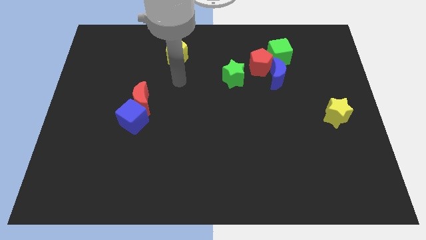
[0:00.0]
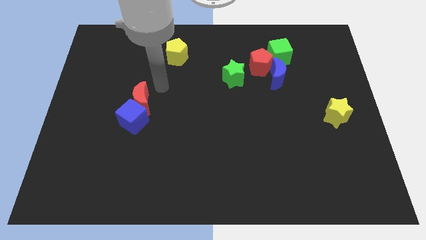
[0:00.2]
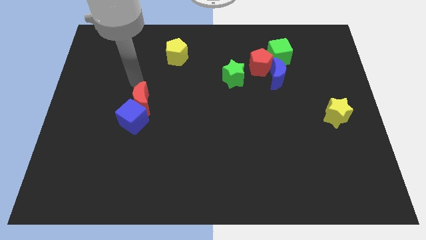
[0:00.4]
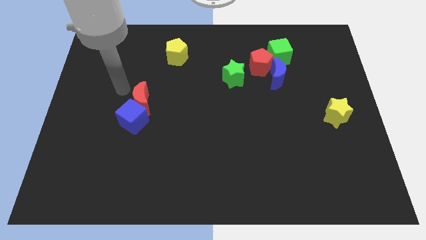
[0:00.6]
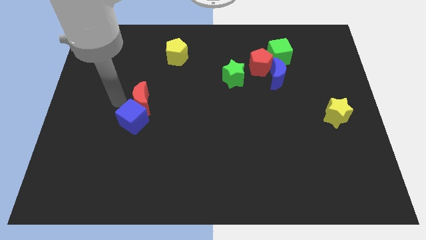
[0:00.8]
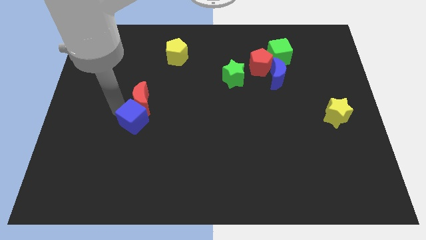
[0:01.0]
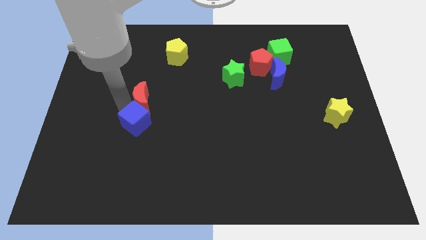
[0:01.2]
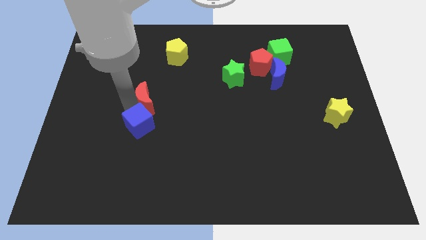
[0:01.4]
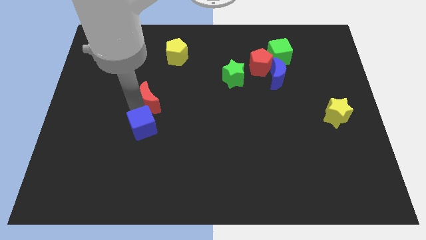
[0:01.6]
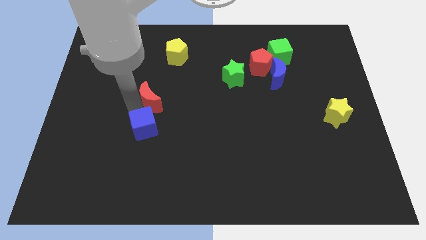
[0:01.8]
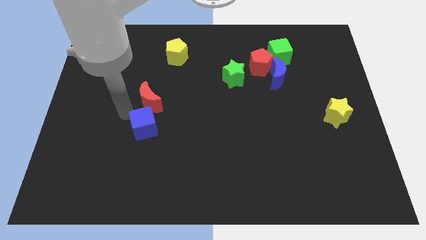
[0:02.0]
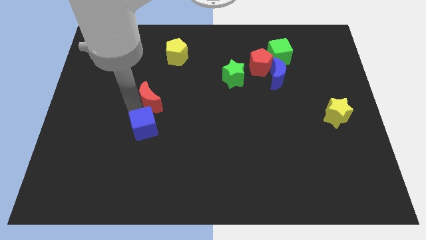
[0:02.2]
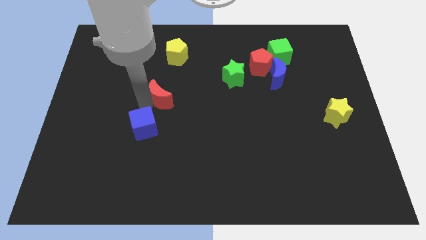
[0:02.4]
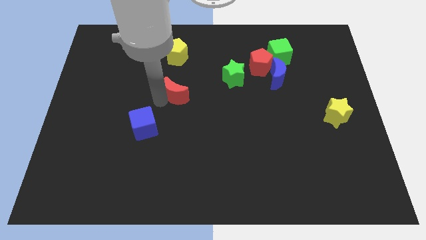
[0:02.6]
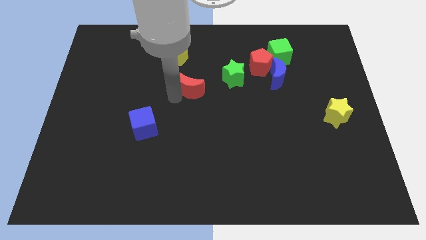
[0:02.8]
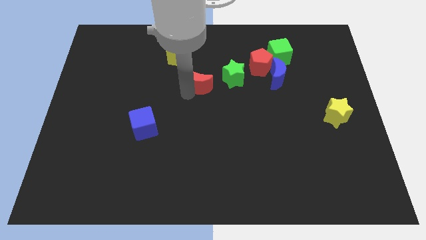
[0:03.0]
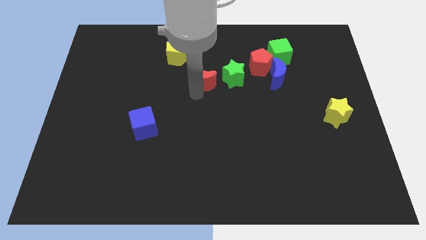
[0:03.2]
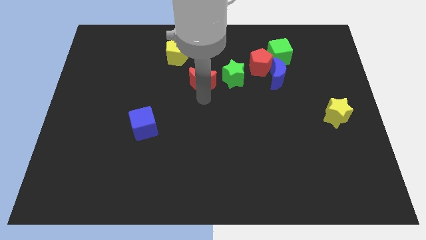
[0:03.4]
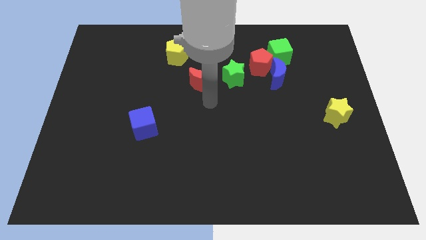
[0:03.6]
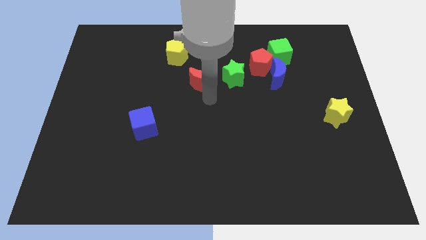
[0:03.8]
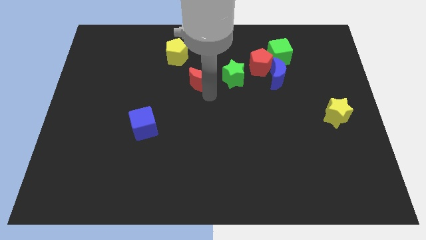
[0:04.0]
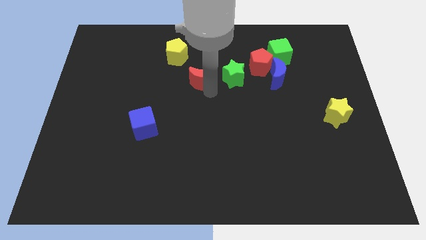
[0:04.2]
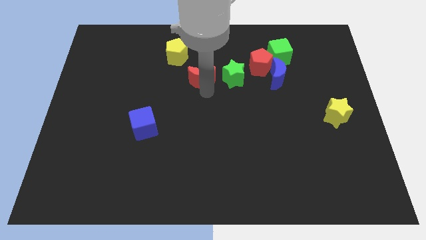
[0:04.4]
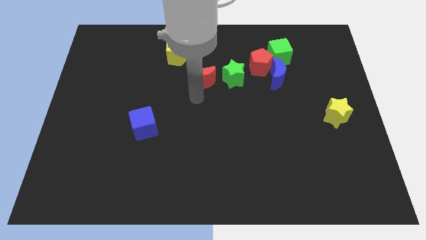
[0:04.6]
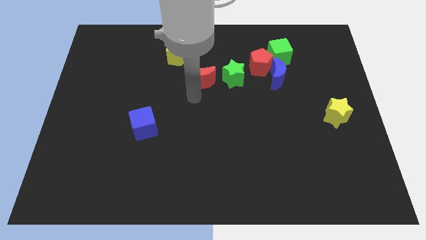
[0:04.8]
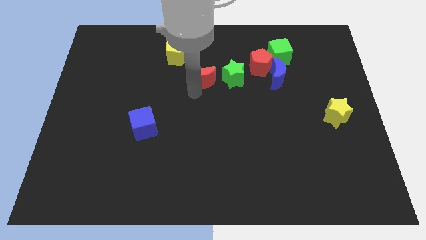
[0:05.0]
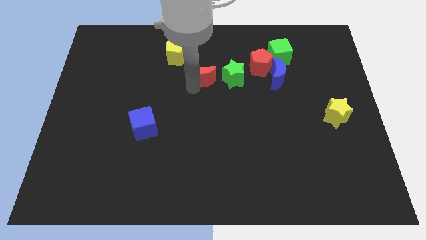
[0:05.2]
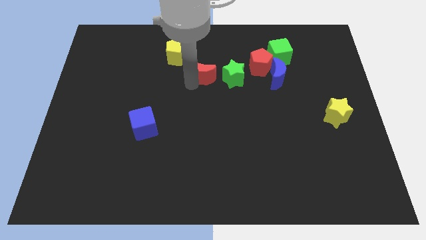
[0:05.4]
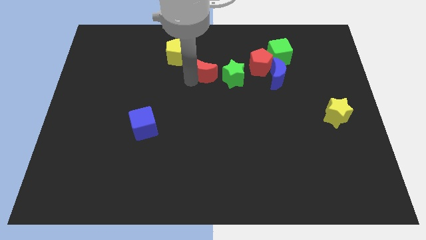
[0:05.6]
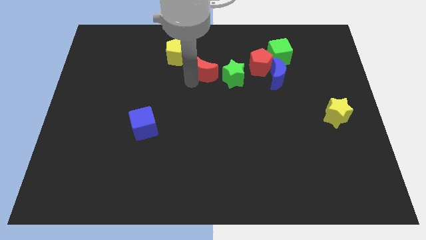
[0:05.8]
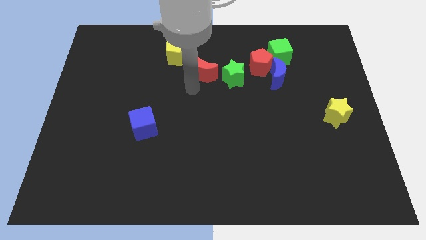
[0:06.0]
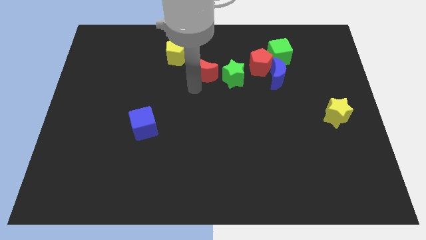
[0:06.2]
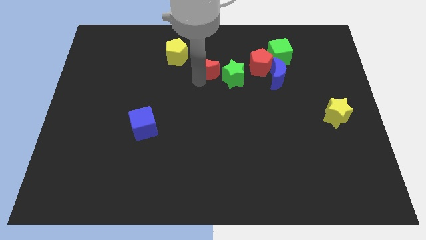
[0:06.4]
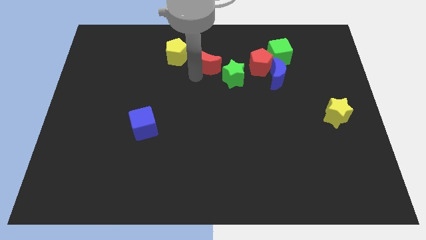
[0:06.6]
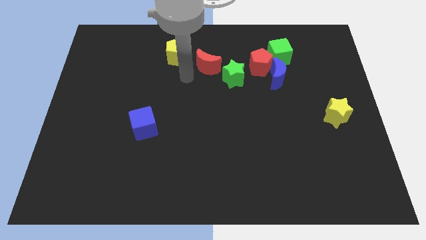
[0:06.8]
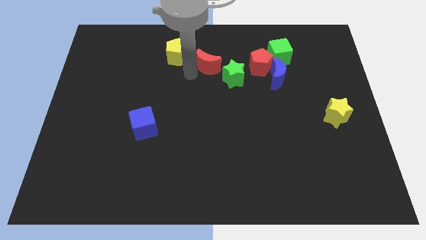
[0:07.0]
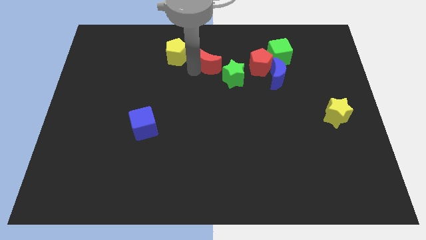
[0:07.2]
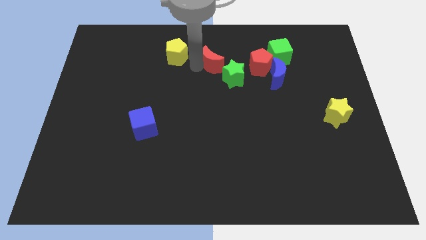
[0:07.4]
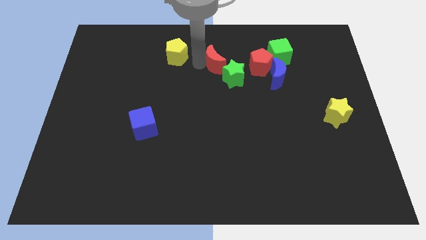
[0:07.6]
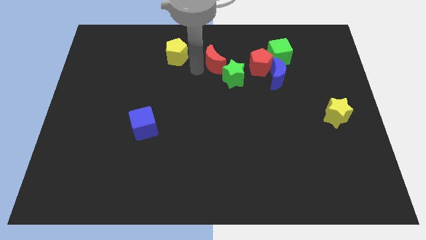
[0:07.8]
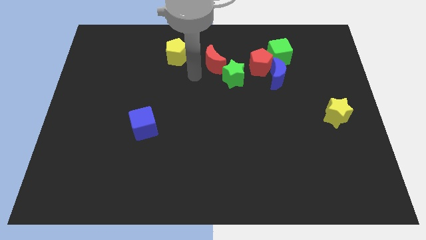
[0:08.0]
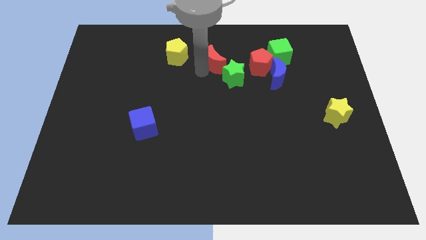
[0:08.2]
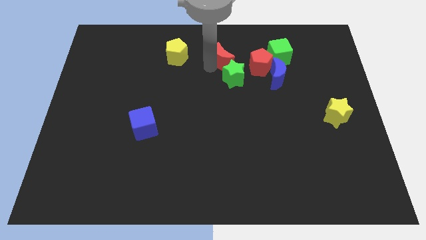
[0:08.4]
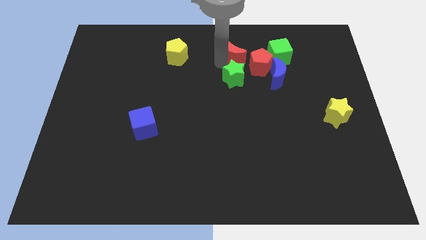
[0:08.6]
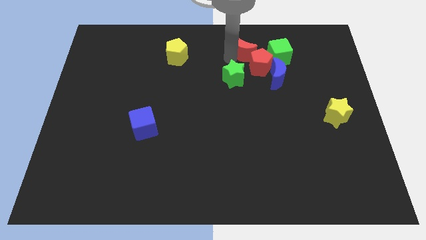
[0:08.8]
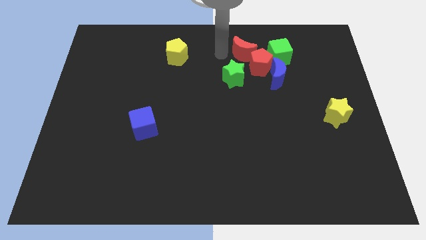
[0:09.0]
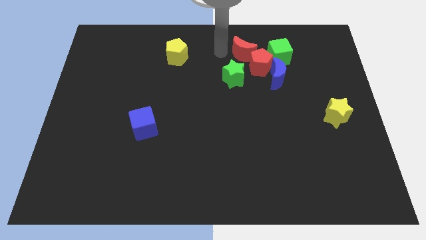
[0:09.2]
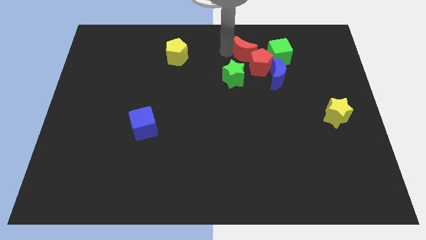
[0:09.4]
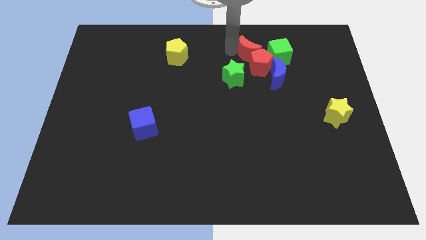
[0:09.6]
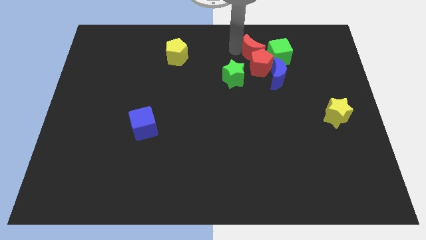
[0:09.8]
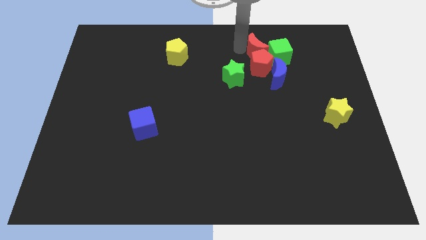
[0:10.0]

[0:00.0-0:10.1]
move the red moon next to the green cube

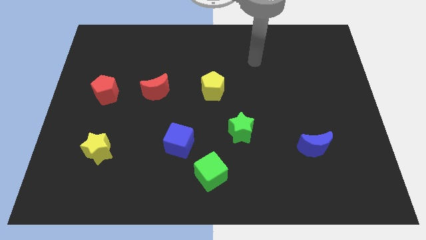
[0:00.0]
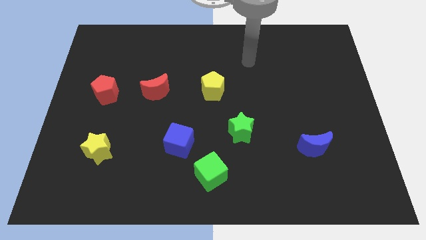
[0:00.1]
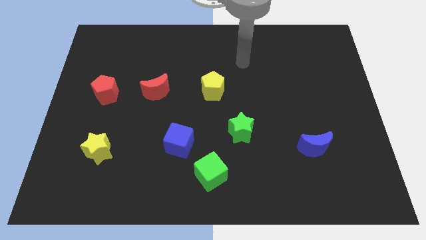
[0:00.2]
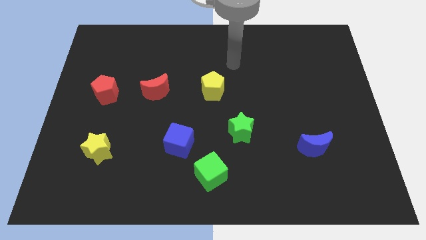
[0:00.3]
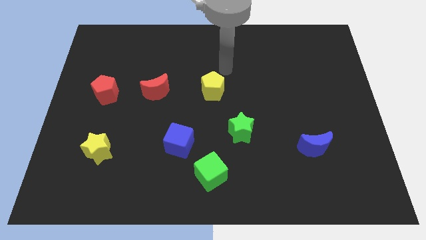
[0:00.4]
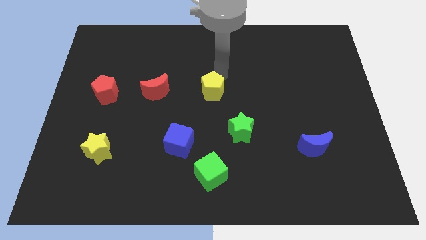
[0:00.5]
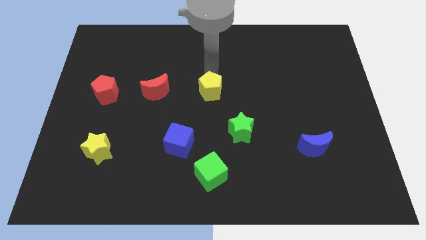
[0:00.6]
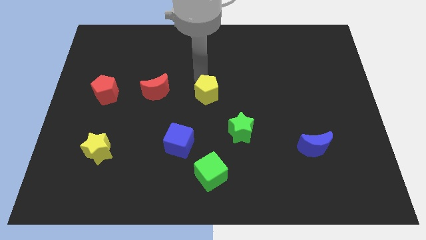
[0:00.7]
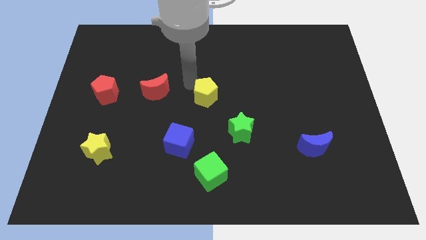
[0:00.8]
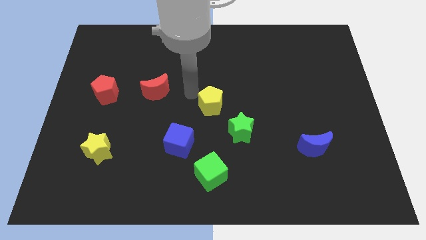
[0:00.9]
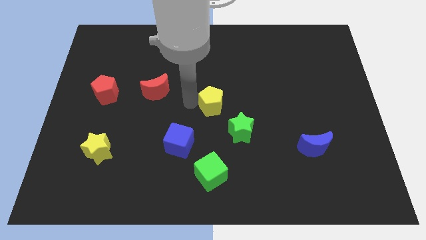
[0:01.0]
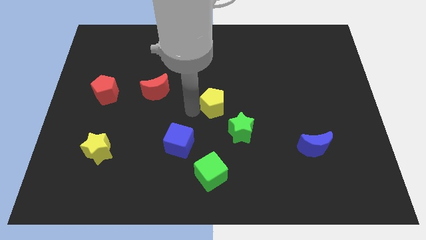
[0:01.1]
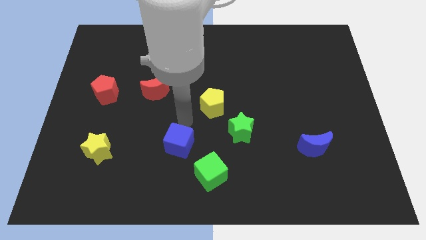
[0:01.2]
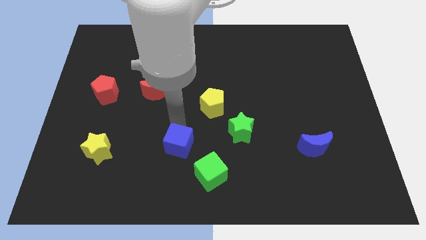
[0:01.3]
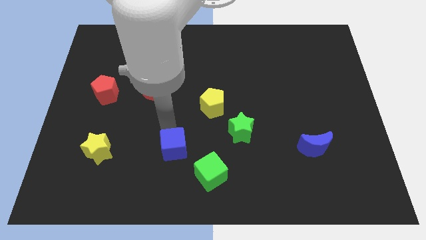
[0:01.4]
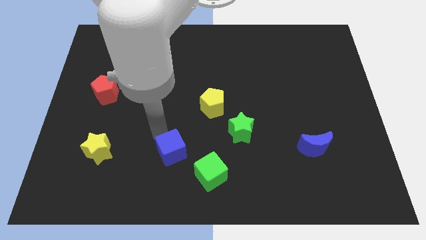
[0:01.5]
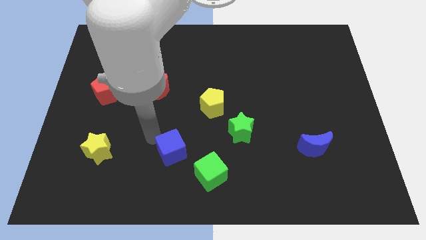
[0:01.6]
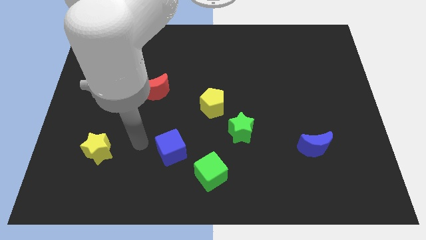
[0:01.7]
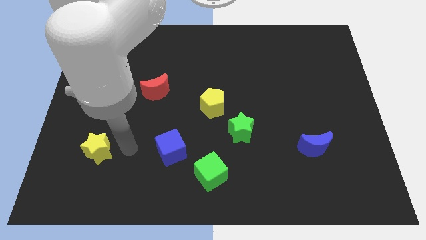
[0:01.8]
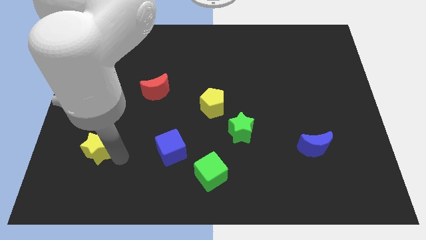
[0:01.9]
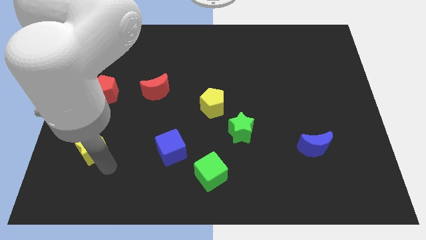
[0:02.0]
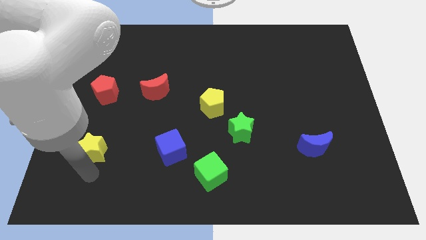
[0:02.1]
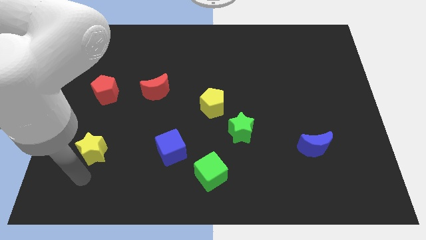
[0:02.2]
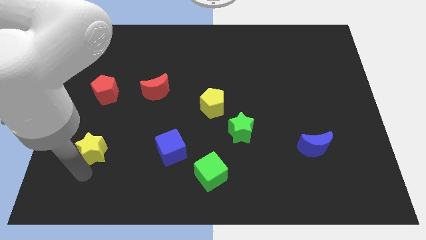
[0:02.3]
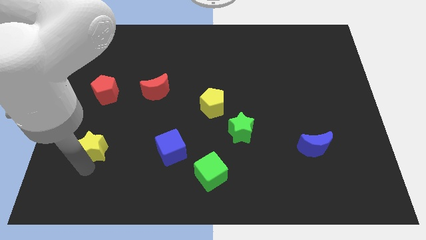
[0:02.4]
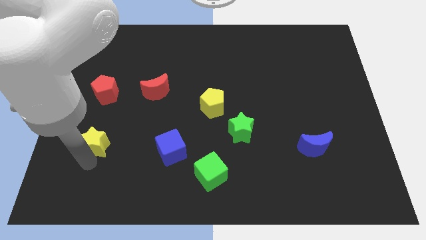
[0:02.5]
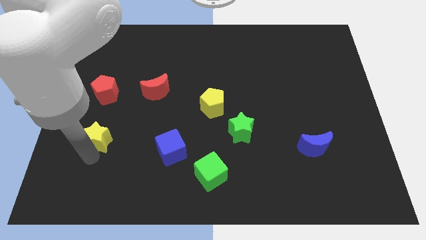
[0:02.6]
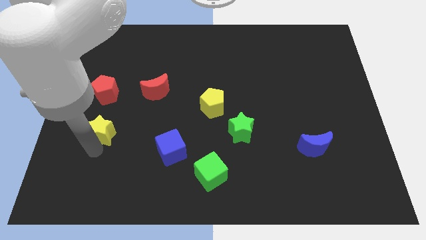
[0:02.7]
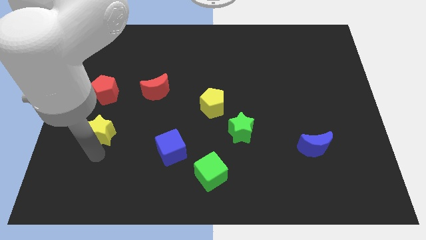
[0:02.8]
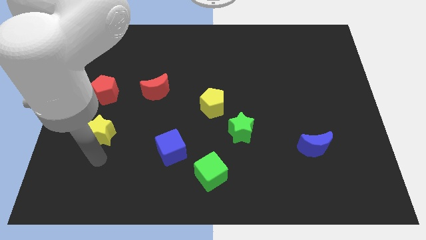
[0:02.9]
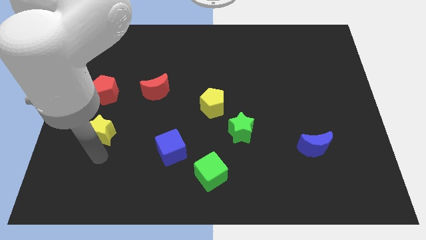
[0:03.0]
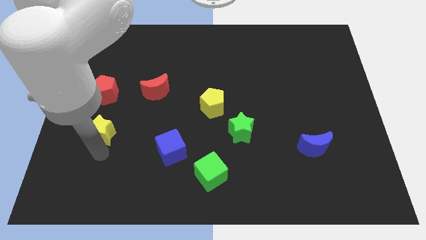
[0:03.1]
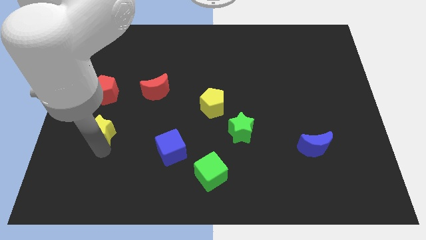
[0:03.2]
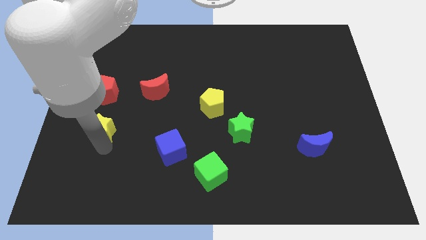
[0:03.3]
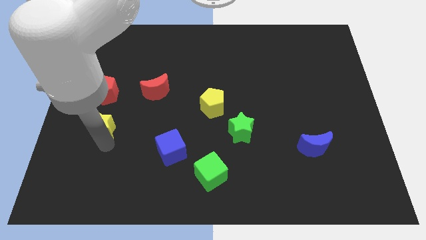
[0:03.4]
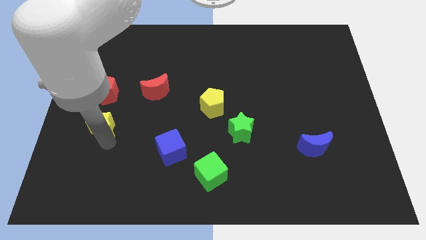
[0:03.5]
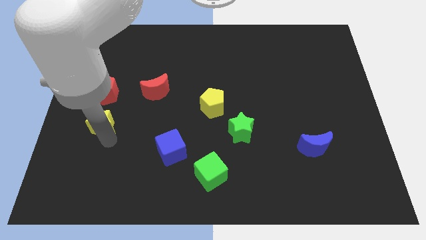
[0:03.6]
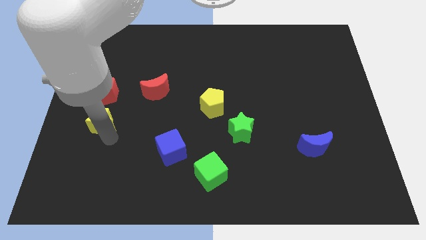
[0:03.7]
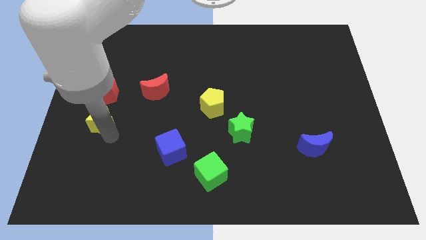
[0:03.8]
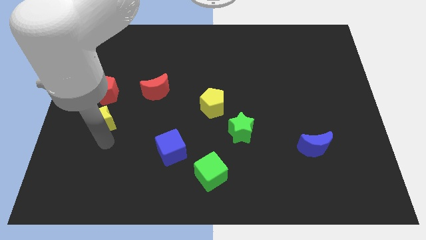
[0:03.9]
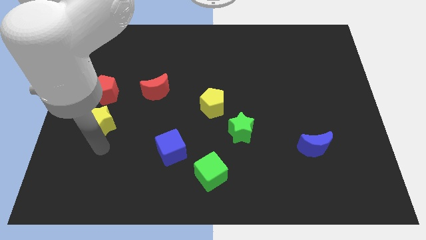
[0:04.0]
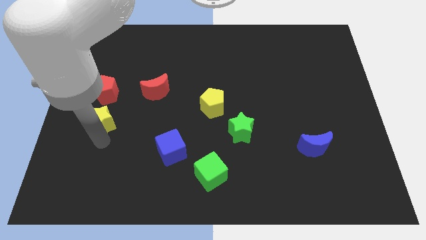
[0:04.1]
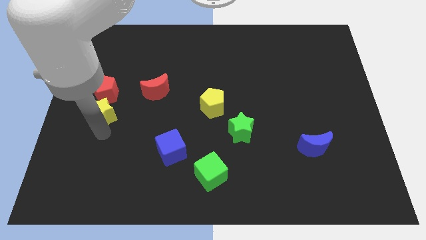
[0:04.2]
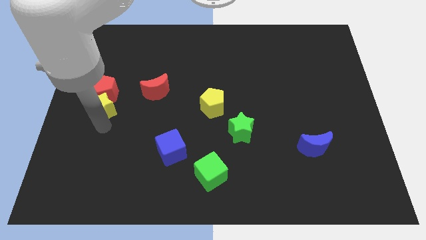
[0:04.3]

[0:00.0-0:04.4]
slide the yellow star next to the red pentagon
